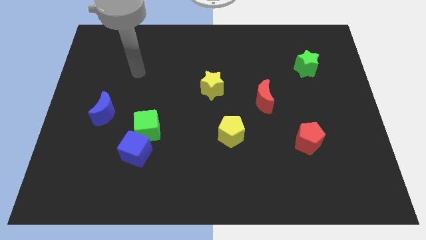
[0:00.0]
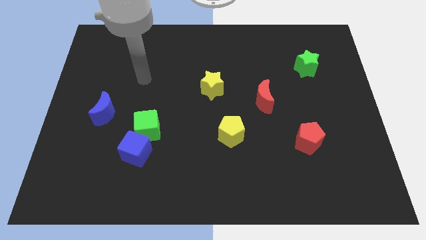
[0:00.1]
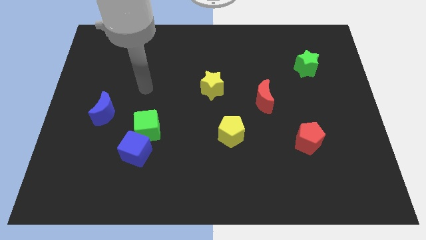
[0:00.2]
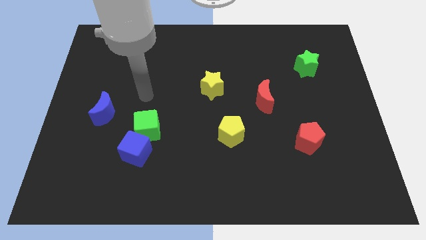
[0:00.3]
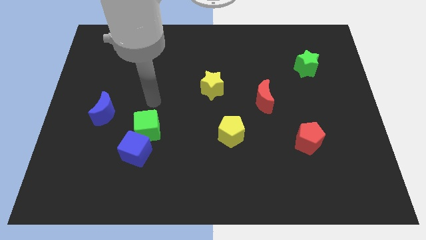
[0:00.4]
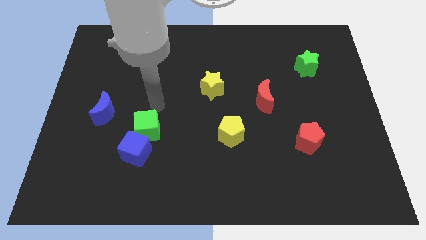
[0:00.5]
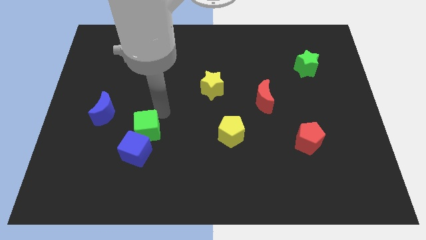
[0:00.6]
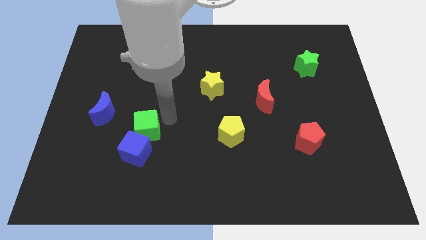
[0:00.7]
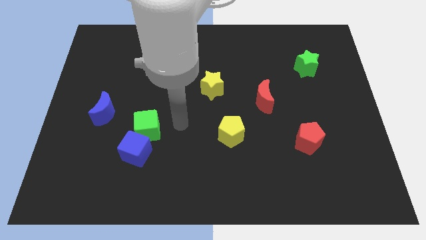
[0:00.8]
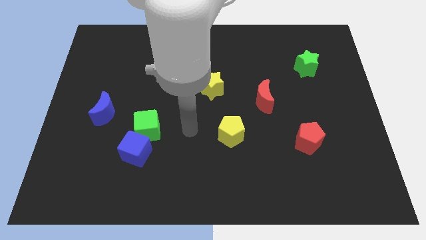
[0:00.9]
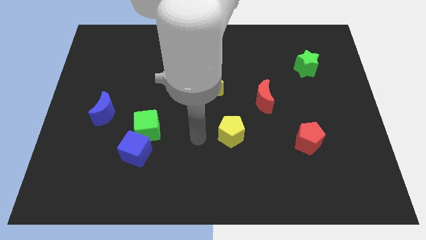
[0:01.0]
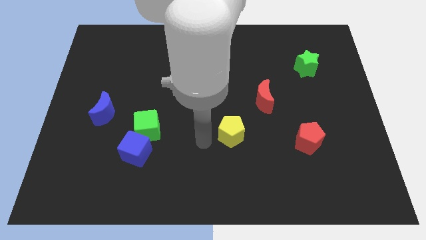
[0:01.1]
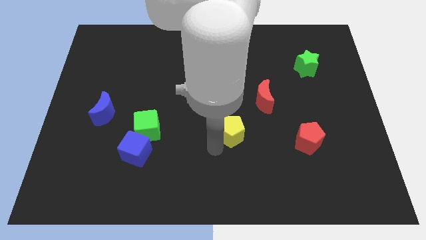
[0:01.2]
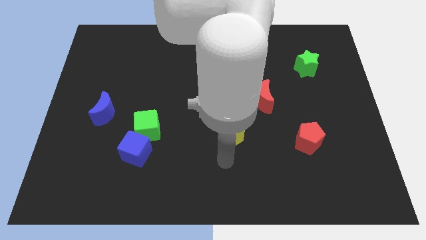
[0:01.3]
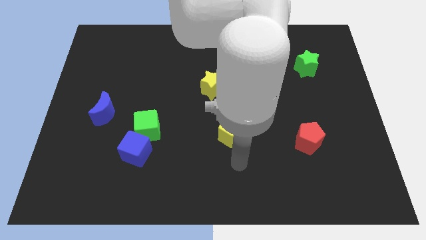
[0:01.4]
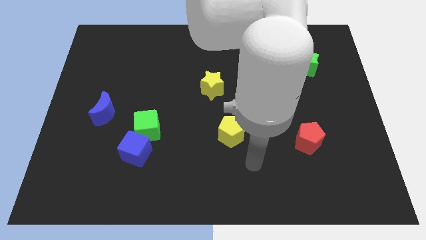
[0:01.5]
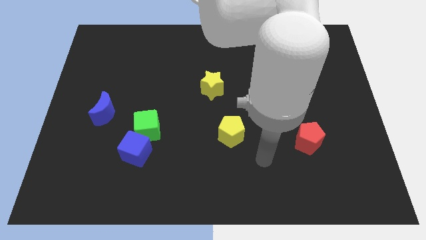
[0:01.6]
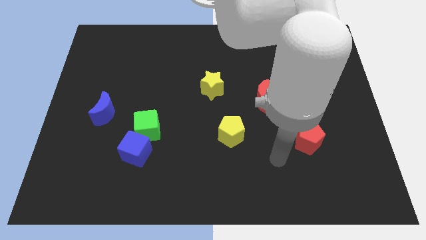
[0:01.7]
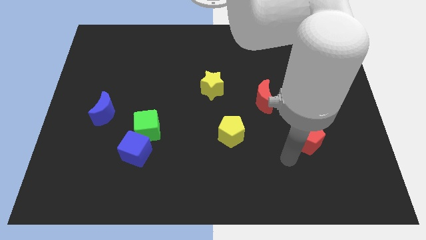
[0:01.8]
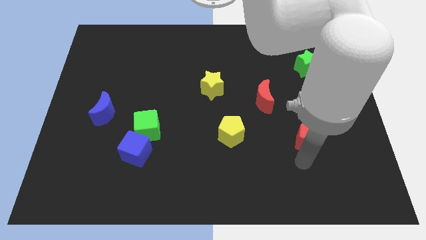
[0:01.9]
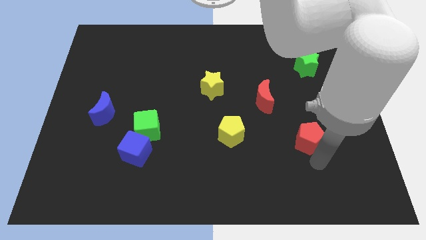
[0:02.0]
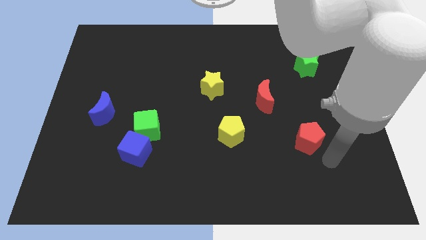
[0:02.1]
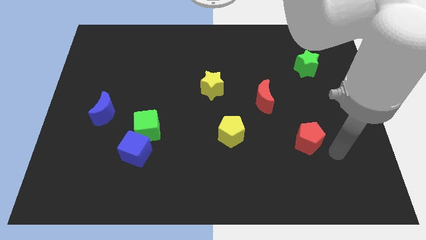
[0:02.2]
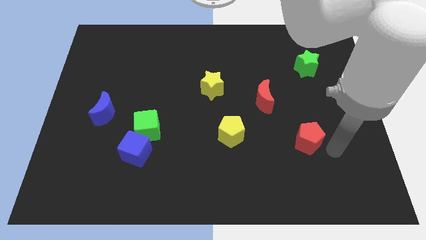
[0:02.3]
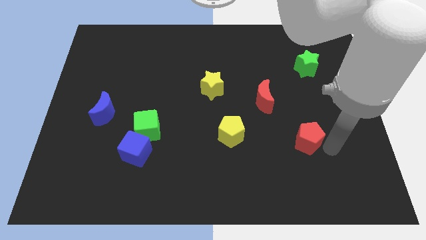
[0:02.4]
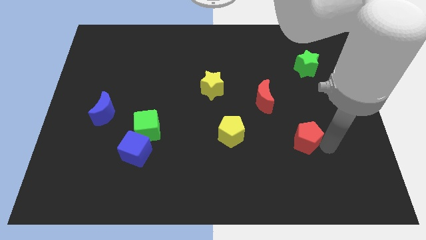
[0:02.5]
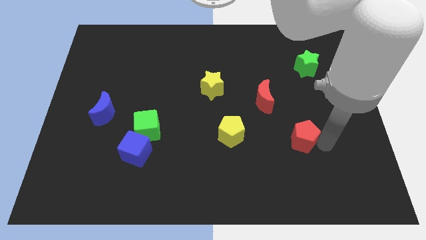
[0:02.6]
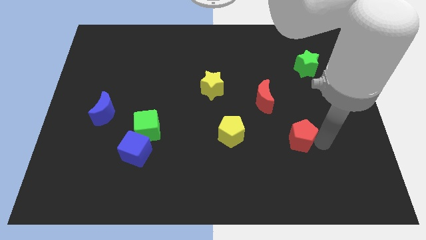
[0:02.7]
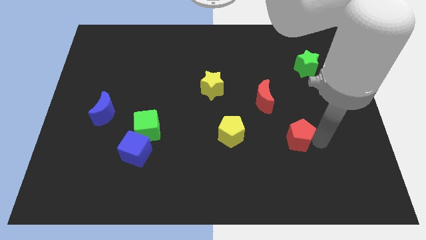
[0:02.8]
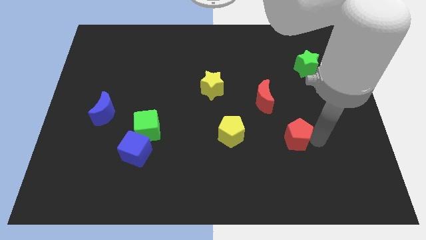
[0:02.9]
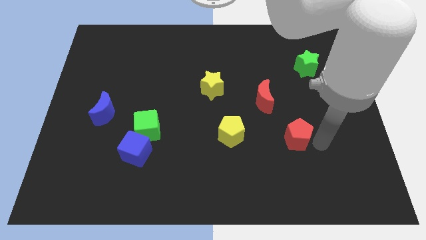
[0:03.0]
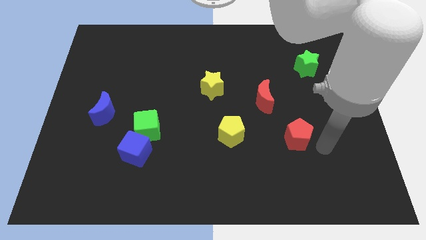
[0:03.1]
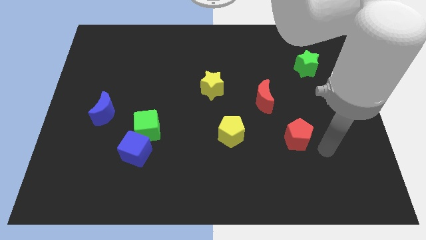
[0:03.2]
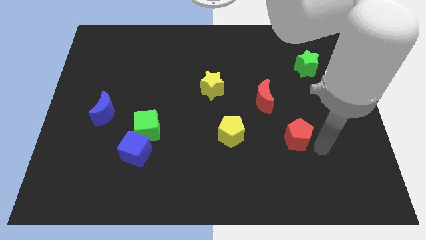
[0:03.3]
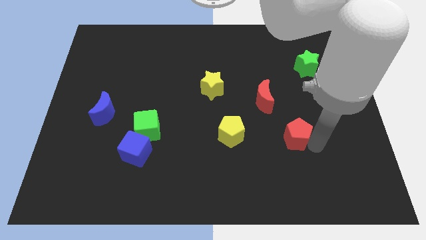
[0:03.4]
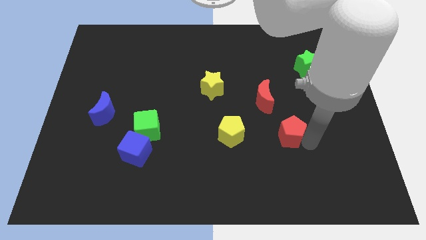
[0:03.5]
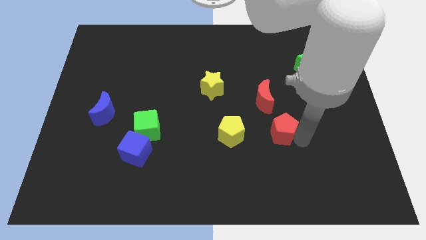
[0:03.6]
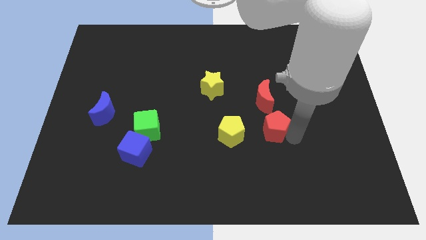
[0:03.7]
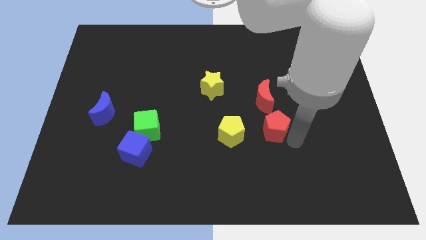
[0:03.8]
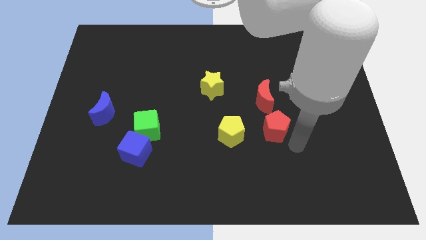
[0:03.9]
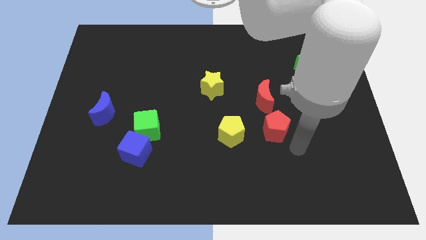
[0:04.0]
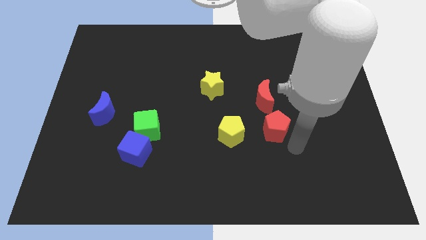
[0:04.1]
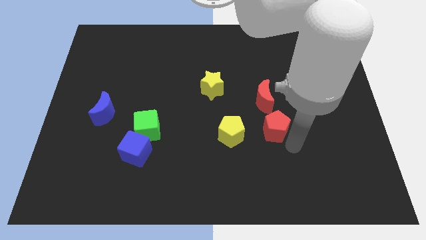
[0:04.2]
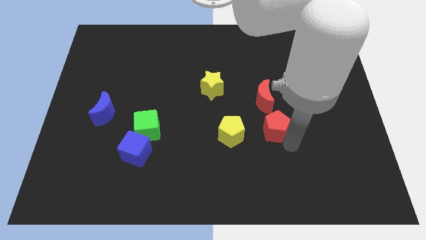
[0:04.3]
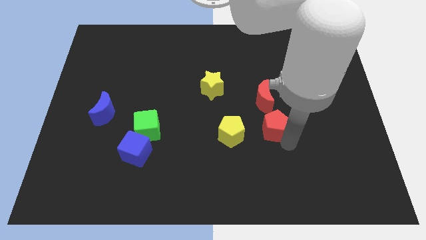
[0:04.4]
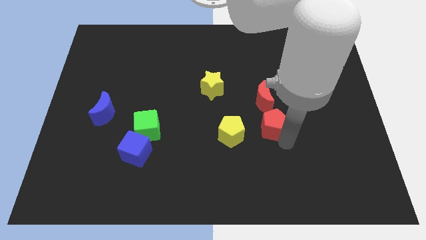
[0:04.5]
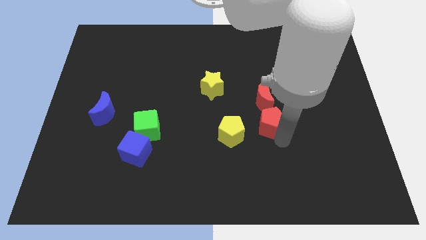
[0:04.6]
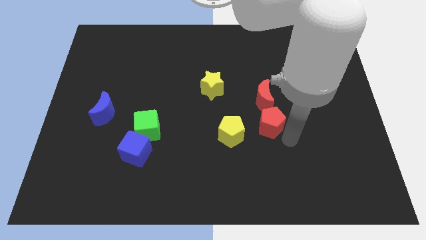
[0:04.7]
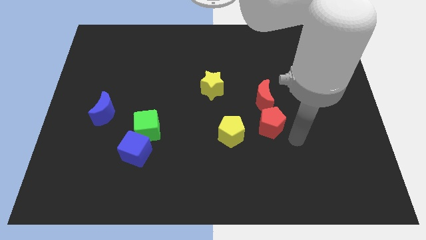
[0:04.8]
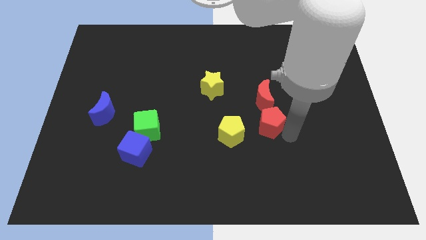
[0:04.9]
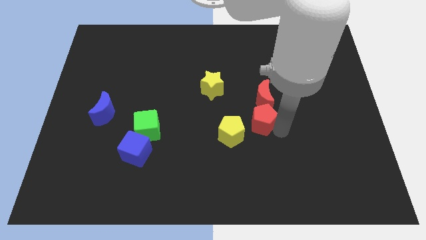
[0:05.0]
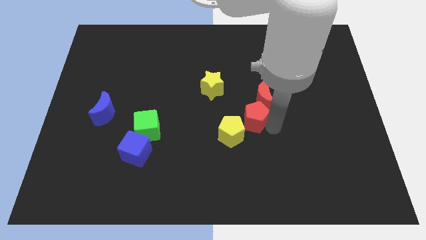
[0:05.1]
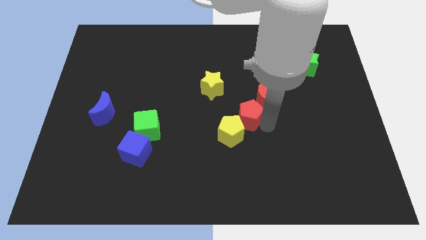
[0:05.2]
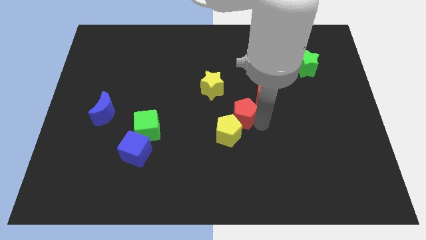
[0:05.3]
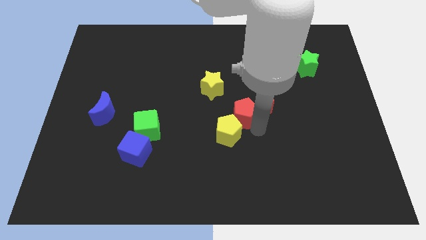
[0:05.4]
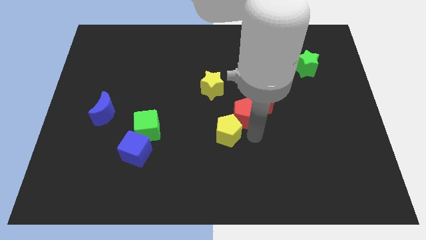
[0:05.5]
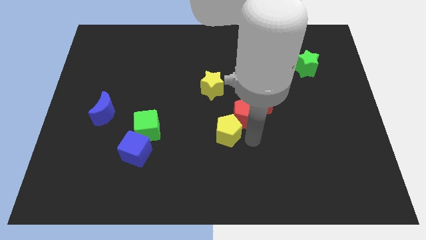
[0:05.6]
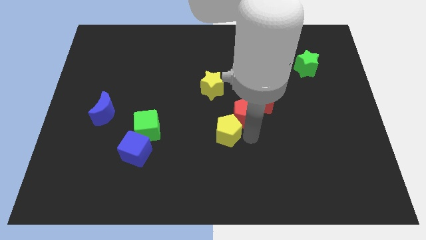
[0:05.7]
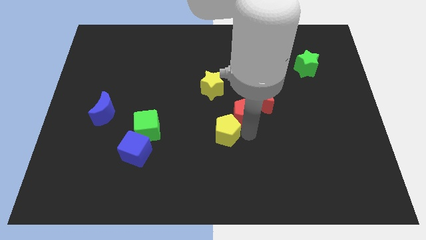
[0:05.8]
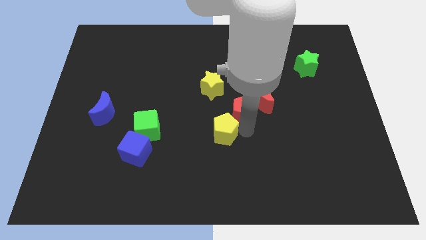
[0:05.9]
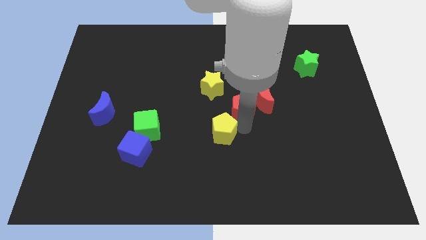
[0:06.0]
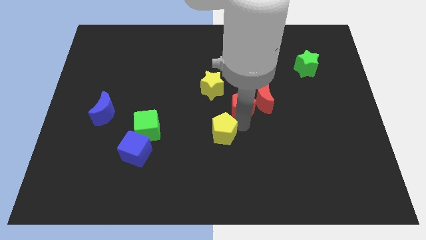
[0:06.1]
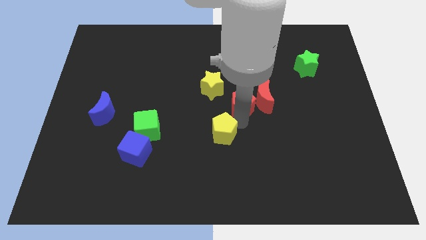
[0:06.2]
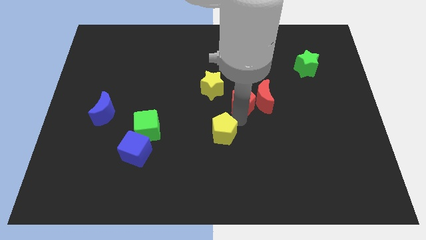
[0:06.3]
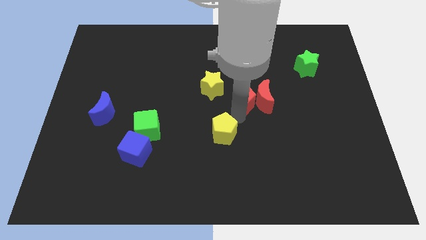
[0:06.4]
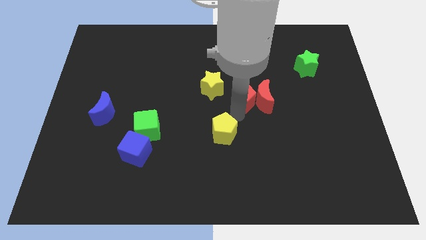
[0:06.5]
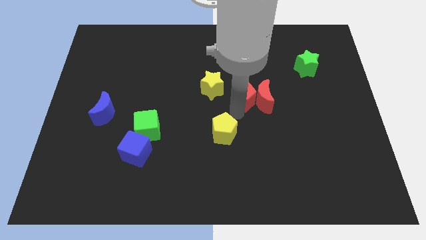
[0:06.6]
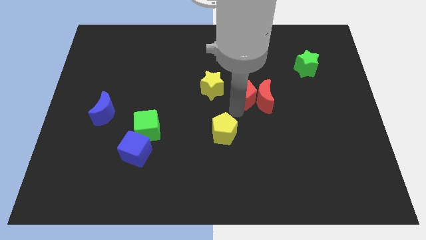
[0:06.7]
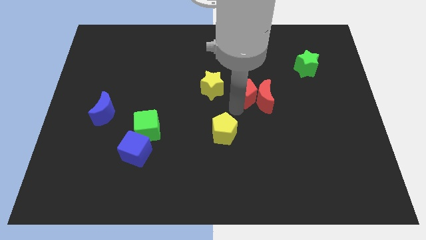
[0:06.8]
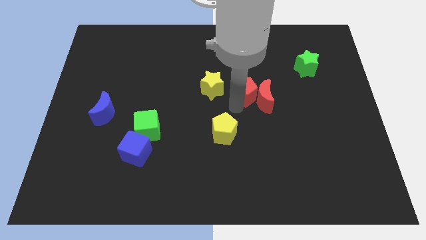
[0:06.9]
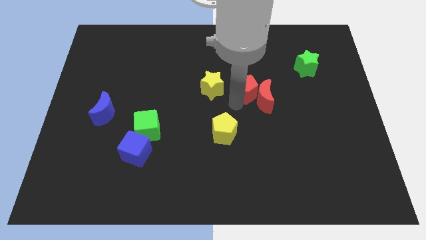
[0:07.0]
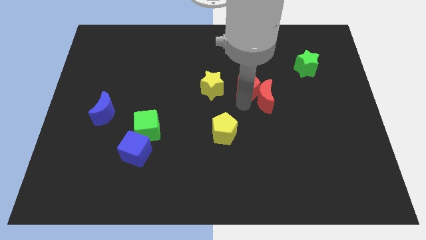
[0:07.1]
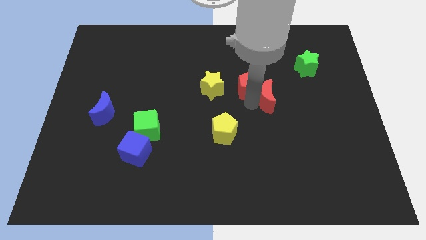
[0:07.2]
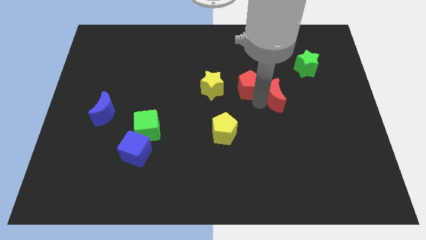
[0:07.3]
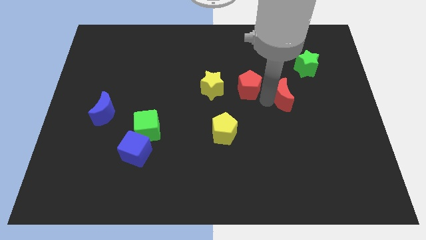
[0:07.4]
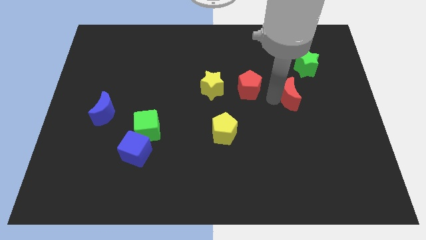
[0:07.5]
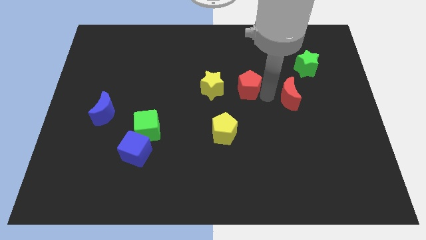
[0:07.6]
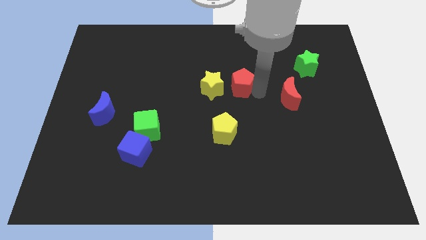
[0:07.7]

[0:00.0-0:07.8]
push the red pentagon up and to the left
